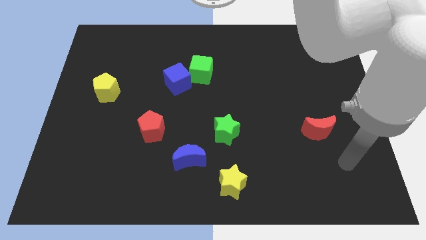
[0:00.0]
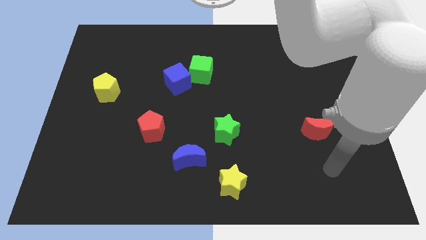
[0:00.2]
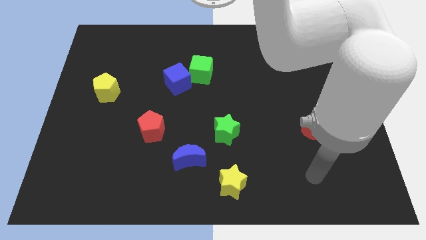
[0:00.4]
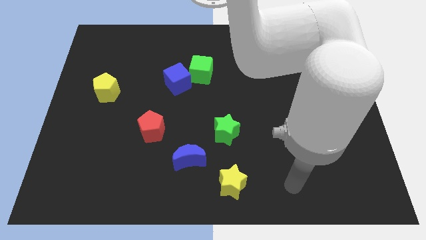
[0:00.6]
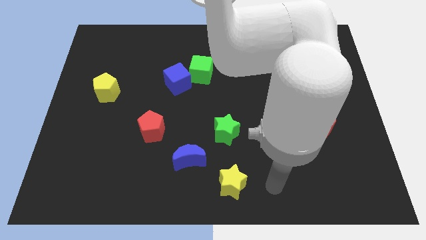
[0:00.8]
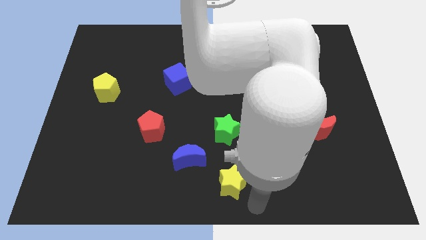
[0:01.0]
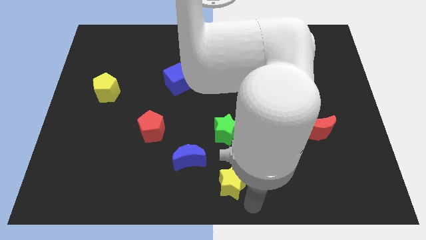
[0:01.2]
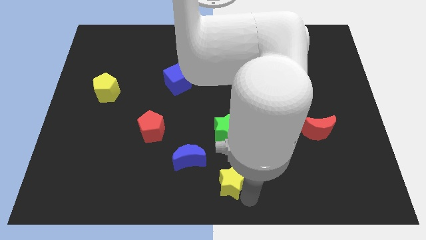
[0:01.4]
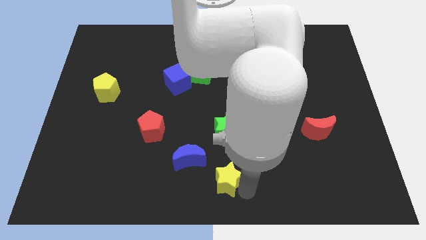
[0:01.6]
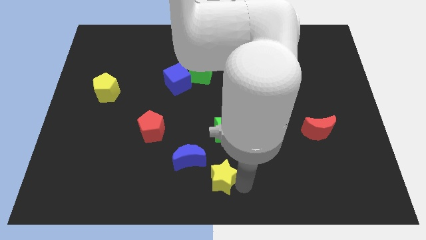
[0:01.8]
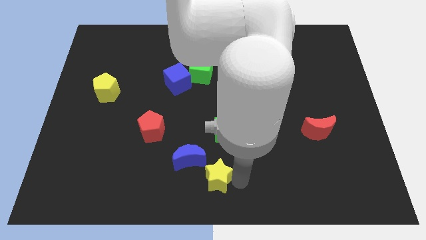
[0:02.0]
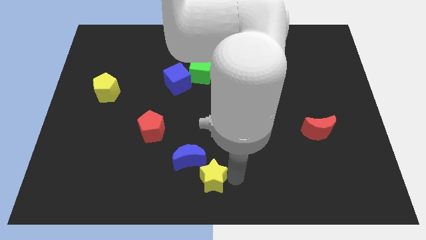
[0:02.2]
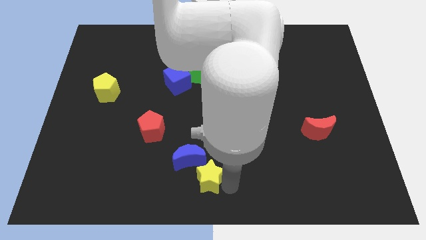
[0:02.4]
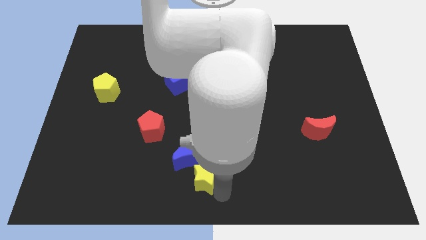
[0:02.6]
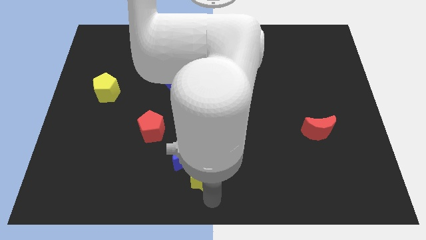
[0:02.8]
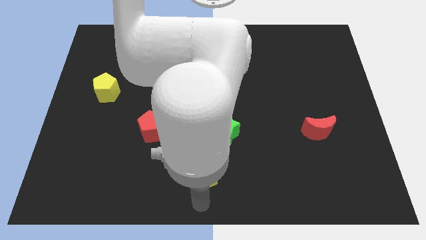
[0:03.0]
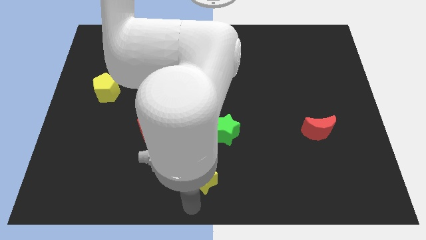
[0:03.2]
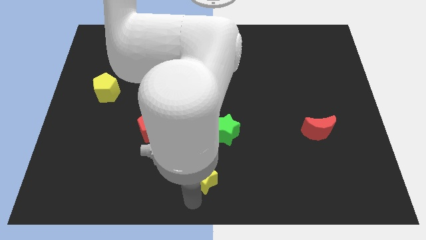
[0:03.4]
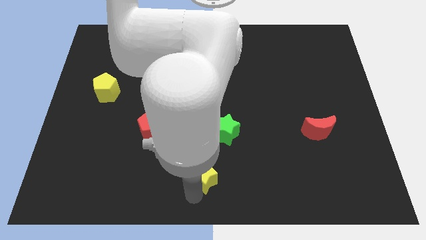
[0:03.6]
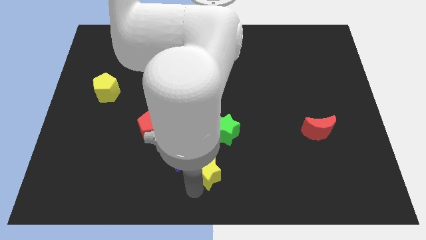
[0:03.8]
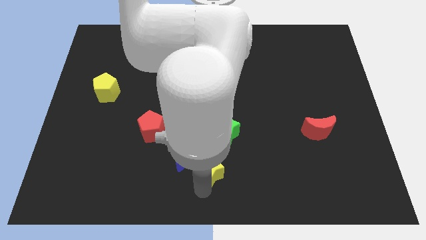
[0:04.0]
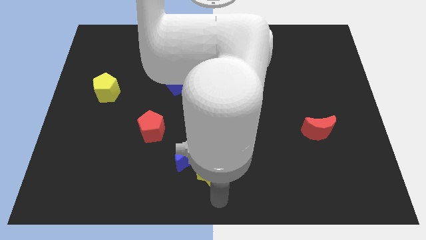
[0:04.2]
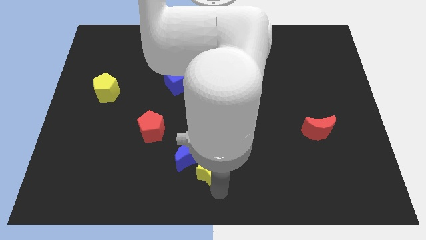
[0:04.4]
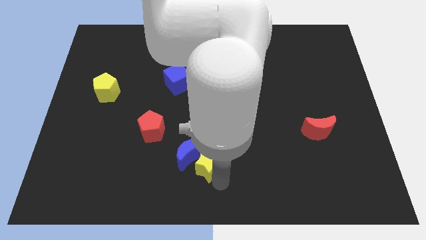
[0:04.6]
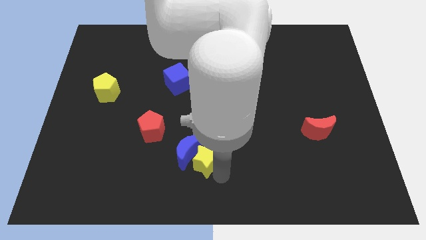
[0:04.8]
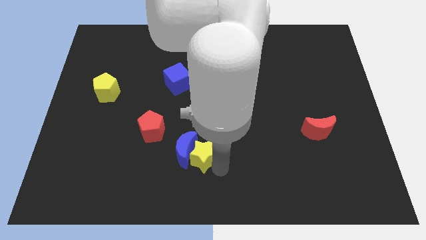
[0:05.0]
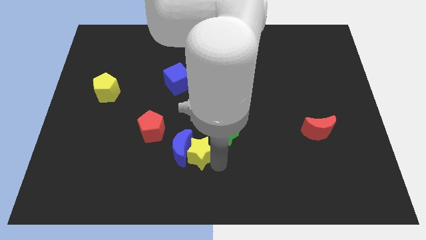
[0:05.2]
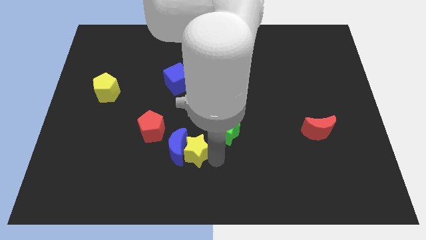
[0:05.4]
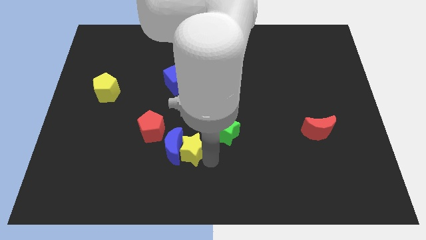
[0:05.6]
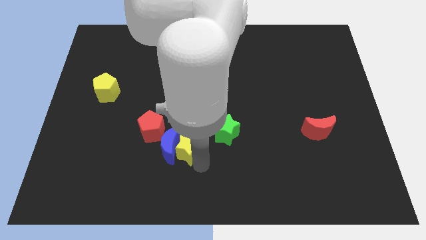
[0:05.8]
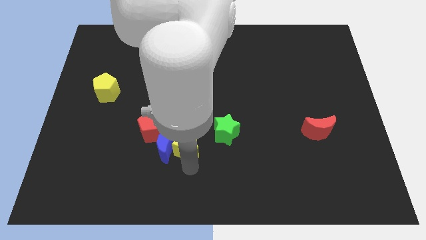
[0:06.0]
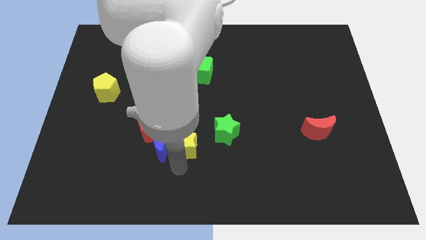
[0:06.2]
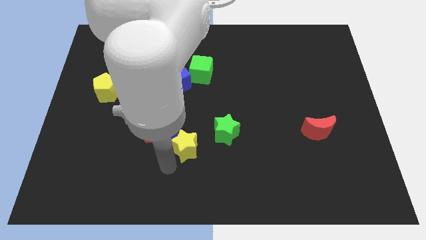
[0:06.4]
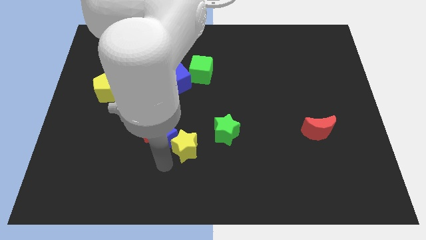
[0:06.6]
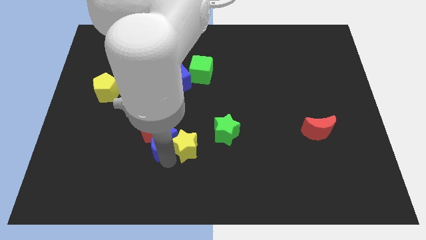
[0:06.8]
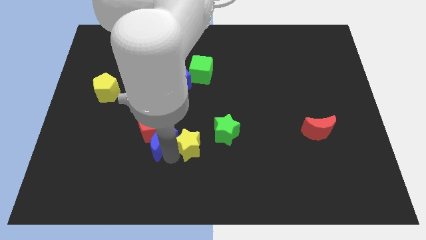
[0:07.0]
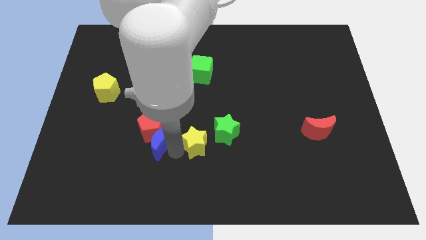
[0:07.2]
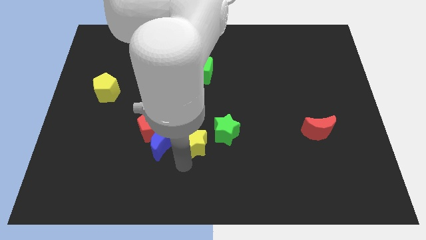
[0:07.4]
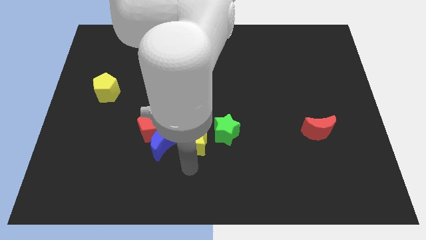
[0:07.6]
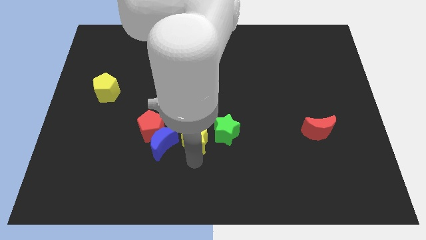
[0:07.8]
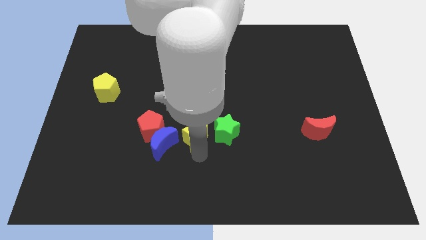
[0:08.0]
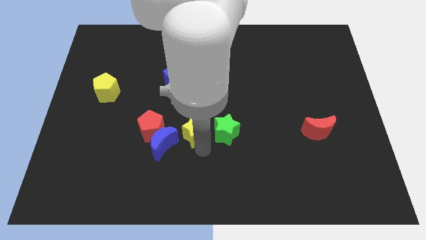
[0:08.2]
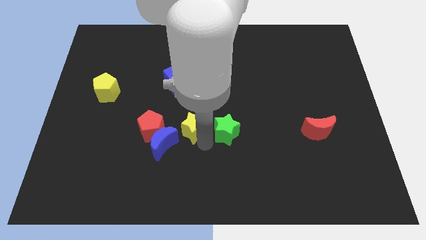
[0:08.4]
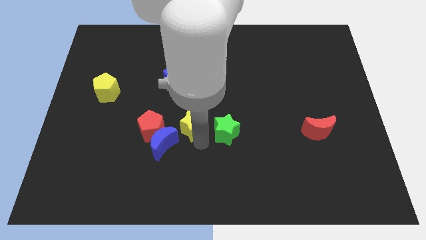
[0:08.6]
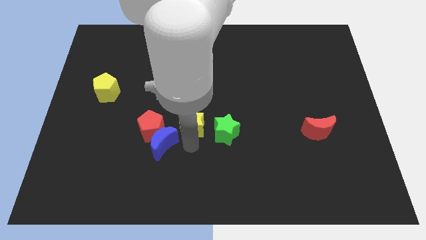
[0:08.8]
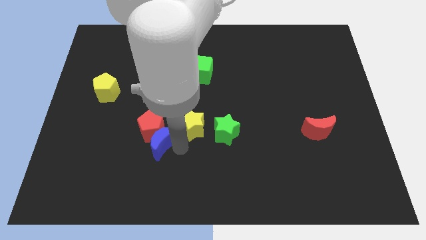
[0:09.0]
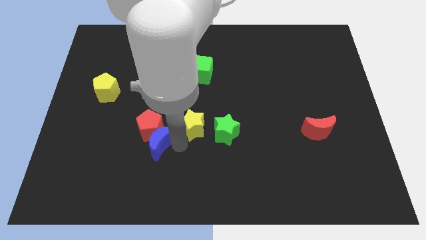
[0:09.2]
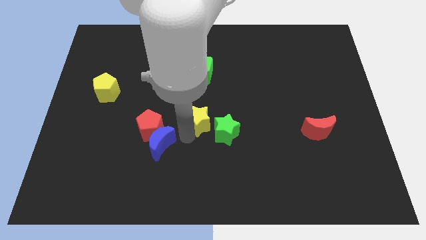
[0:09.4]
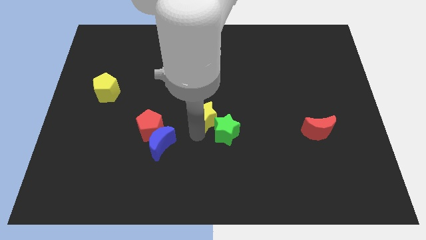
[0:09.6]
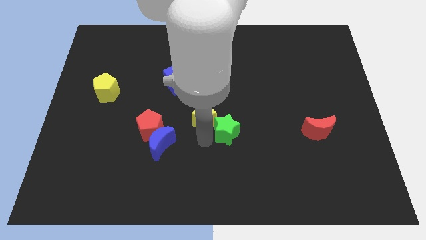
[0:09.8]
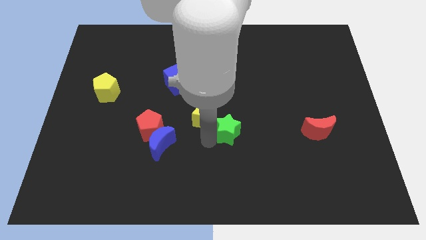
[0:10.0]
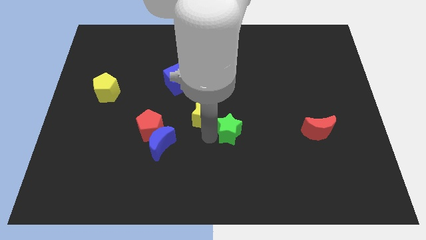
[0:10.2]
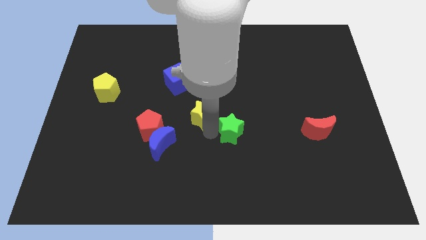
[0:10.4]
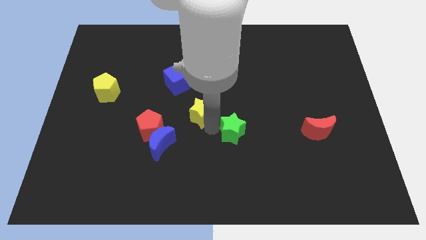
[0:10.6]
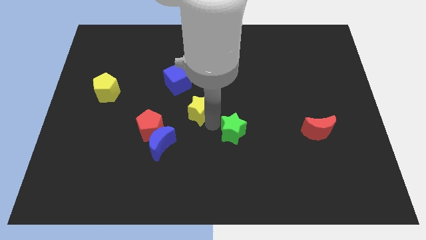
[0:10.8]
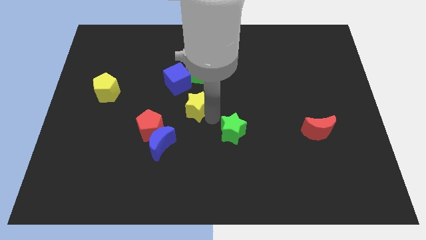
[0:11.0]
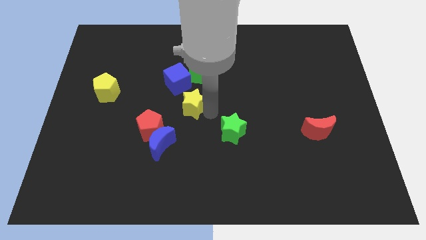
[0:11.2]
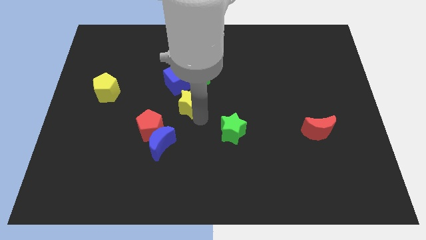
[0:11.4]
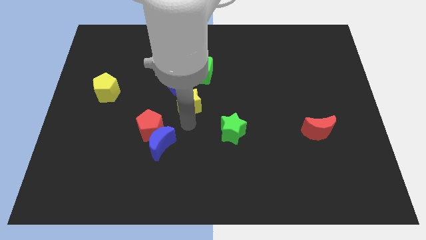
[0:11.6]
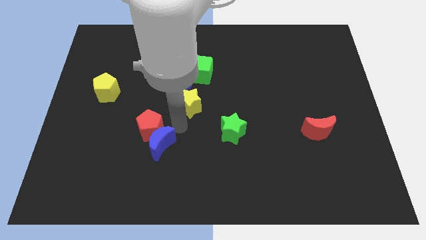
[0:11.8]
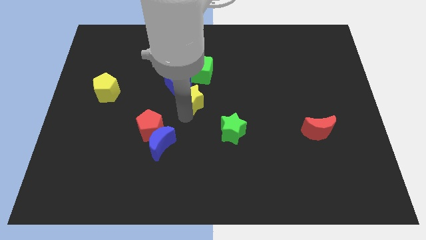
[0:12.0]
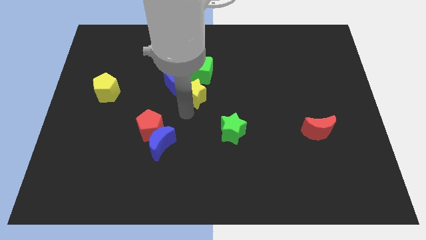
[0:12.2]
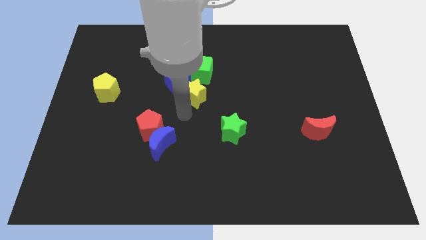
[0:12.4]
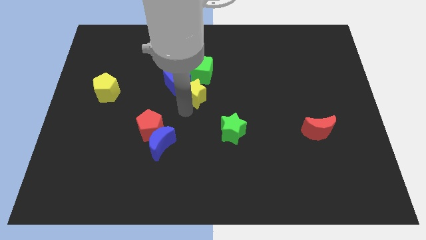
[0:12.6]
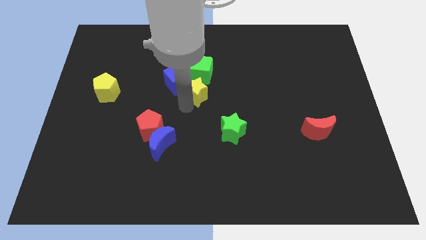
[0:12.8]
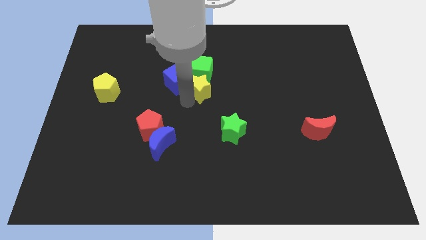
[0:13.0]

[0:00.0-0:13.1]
move the yellow star towards the green cube
